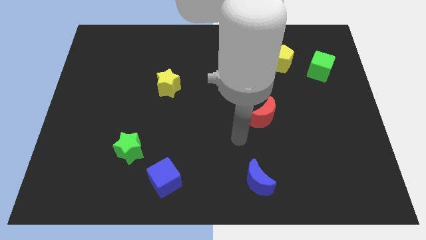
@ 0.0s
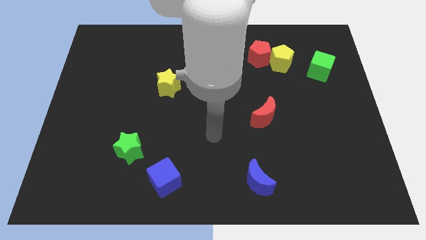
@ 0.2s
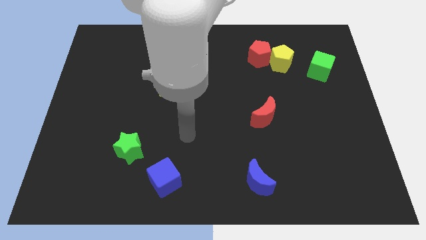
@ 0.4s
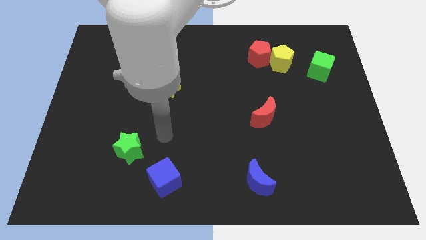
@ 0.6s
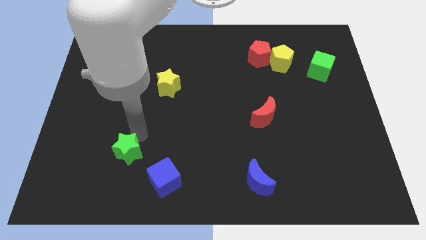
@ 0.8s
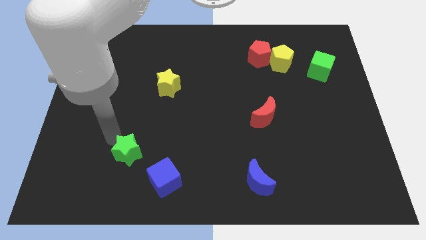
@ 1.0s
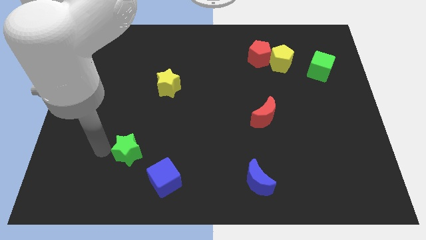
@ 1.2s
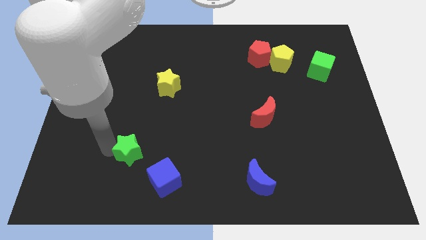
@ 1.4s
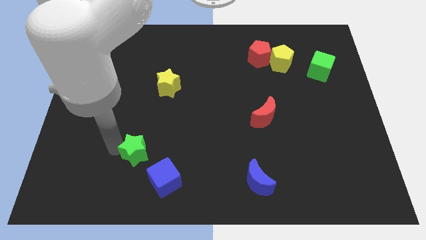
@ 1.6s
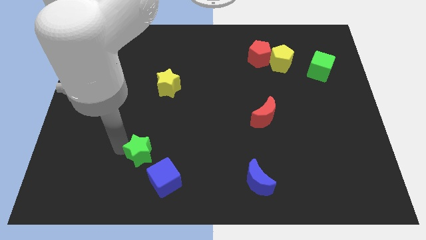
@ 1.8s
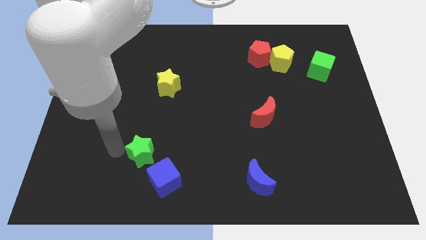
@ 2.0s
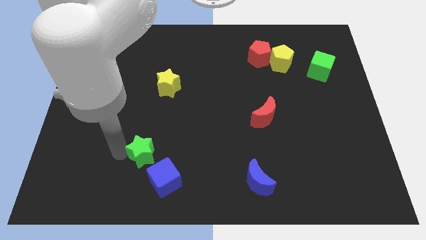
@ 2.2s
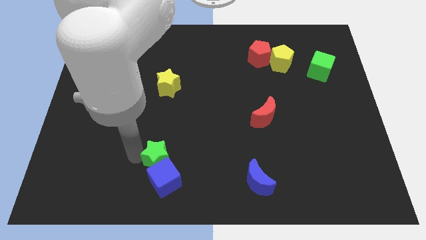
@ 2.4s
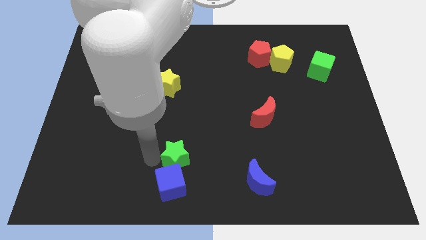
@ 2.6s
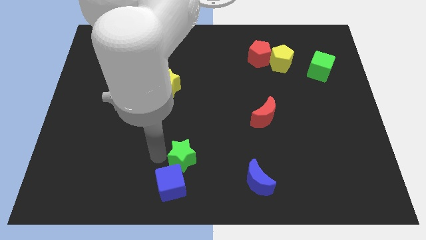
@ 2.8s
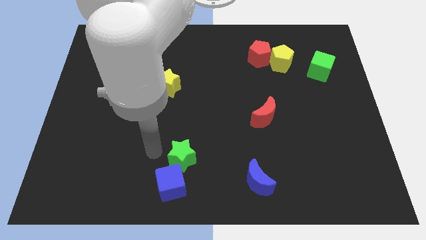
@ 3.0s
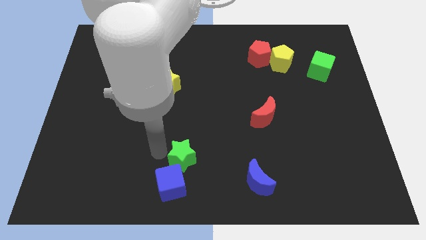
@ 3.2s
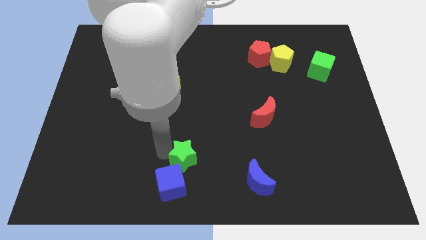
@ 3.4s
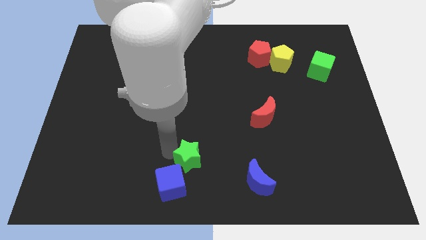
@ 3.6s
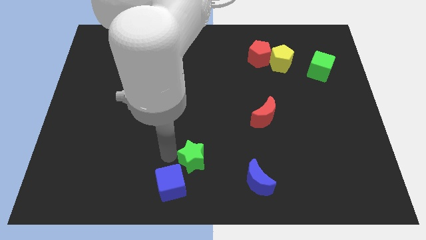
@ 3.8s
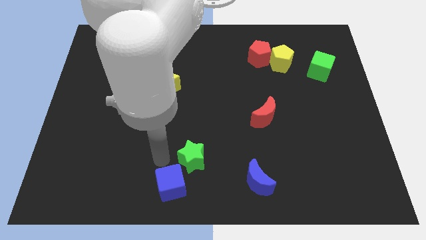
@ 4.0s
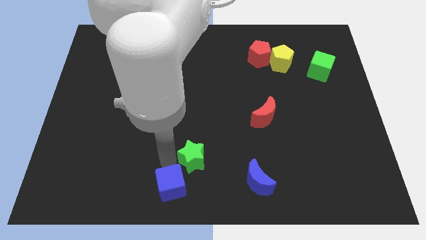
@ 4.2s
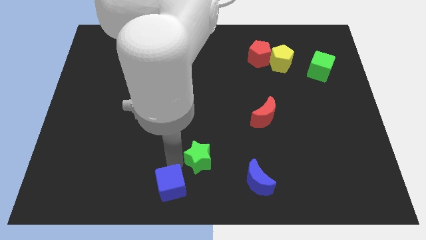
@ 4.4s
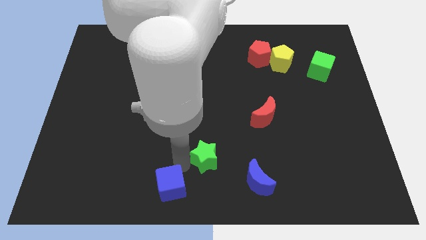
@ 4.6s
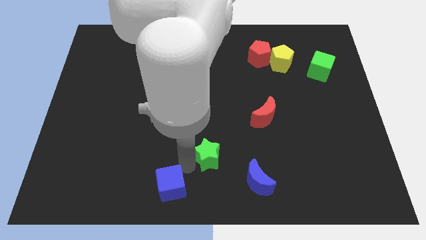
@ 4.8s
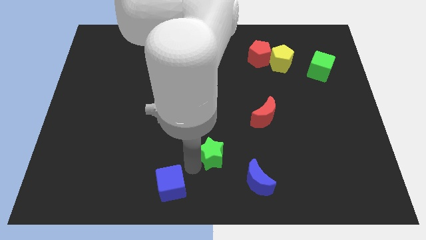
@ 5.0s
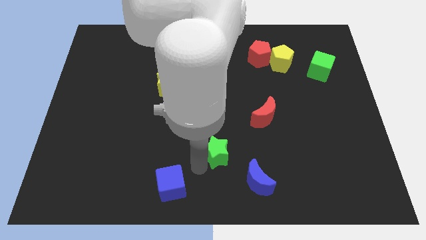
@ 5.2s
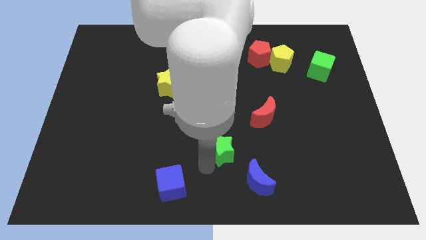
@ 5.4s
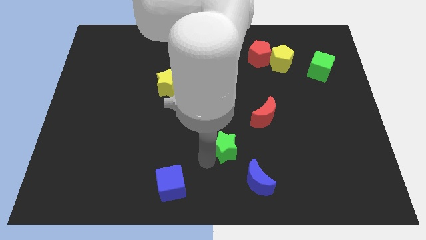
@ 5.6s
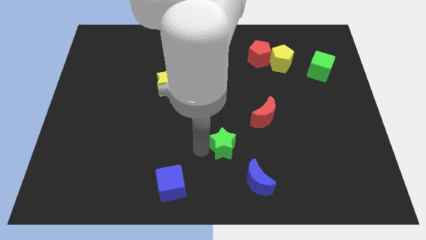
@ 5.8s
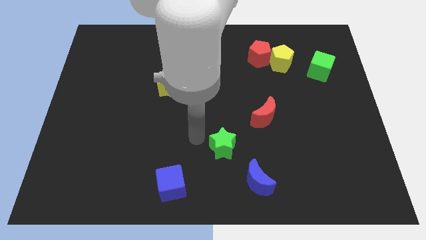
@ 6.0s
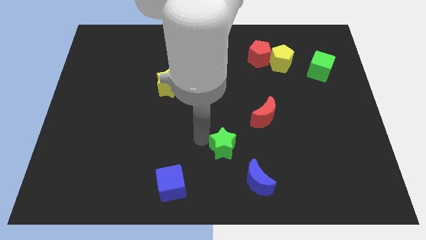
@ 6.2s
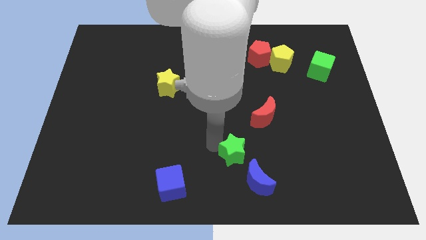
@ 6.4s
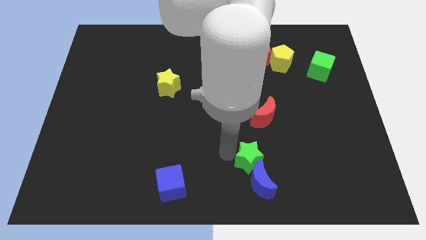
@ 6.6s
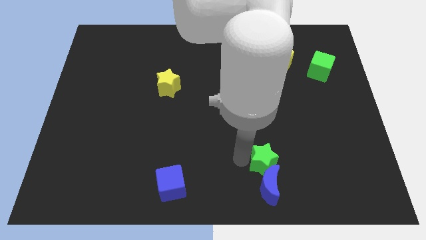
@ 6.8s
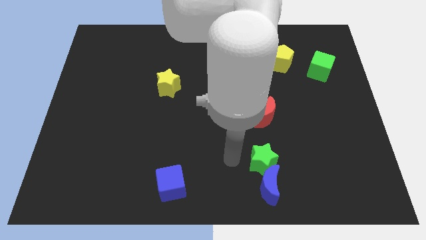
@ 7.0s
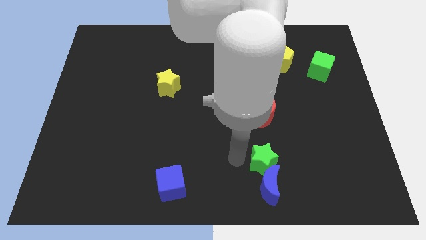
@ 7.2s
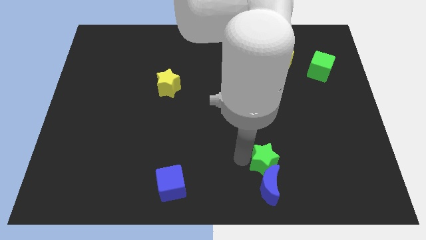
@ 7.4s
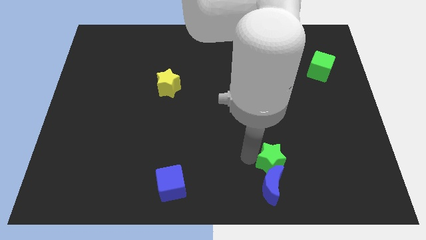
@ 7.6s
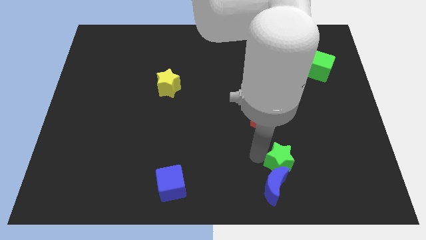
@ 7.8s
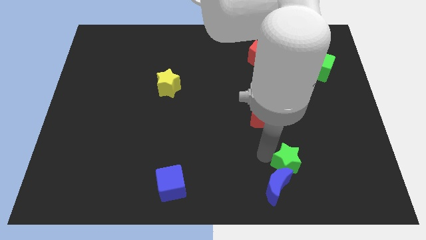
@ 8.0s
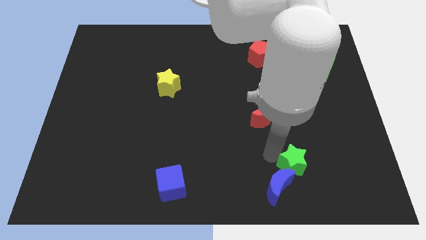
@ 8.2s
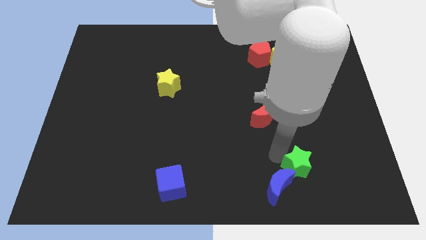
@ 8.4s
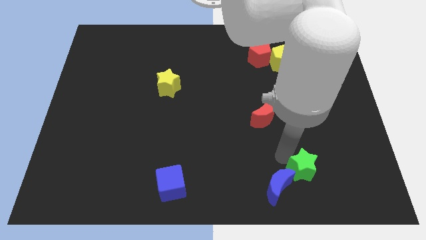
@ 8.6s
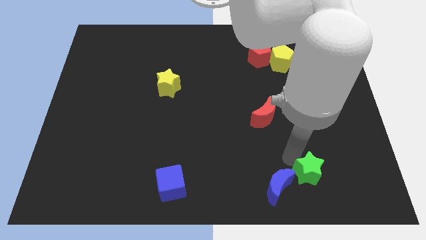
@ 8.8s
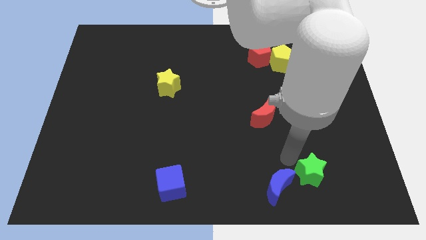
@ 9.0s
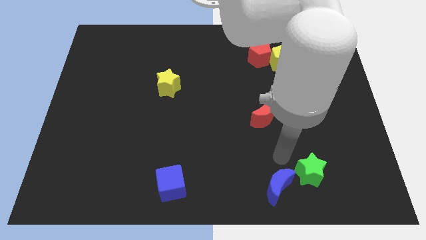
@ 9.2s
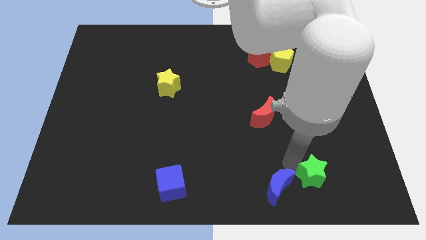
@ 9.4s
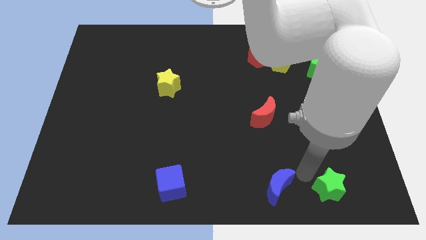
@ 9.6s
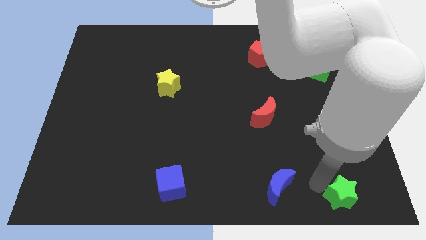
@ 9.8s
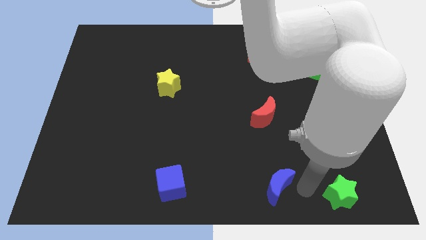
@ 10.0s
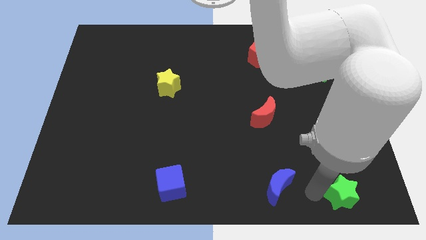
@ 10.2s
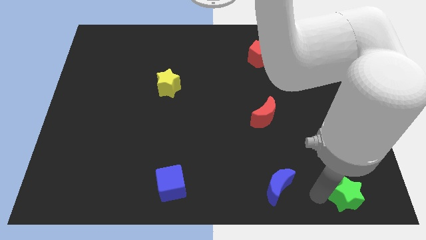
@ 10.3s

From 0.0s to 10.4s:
put the green star to the bottom right corner

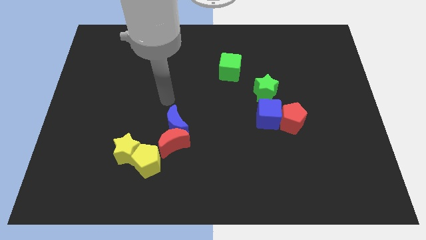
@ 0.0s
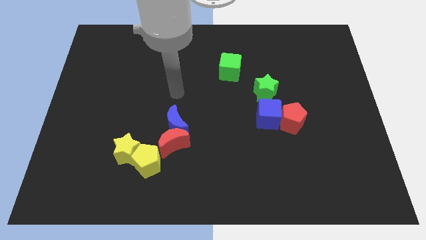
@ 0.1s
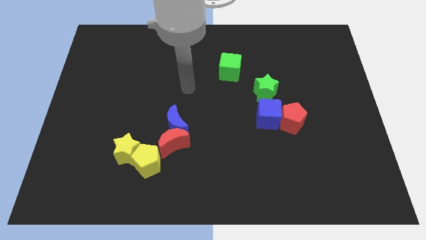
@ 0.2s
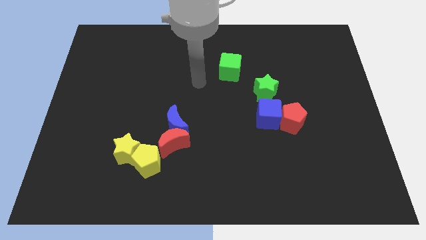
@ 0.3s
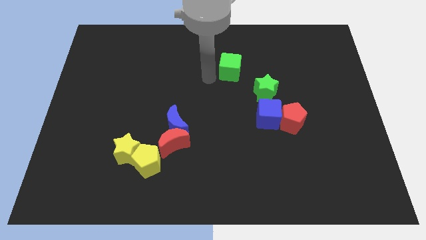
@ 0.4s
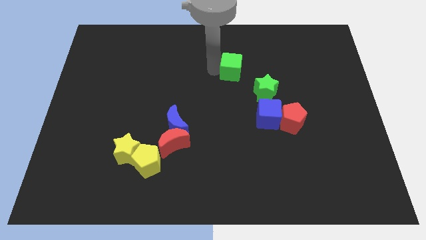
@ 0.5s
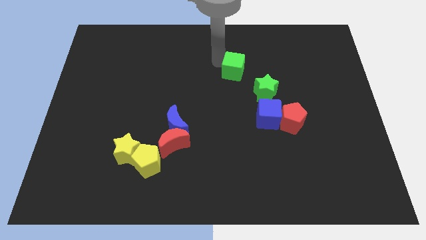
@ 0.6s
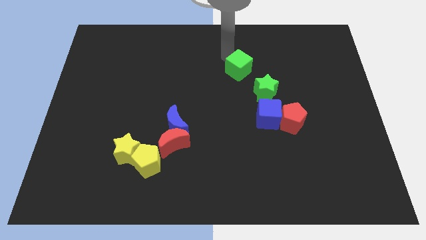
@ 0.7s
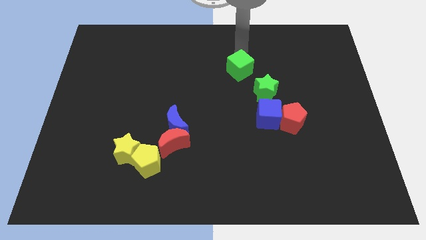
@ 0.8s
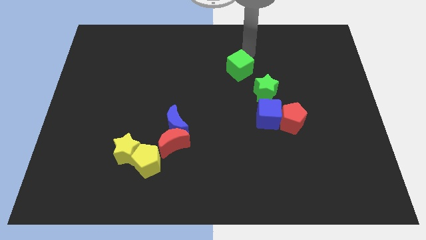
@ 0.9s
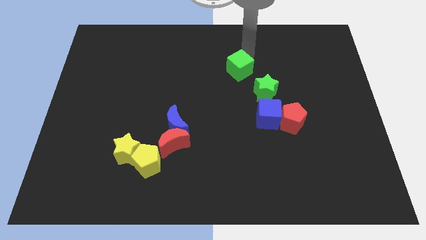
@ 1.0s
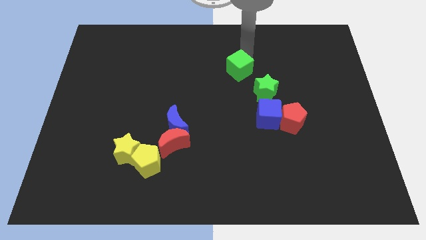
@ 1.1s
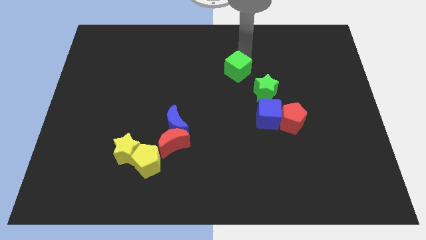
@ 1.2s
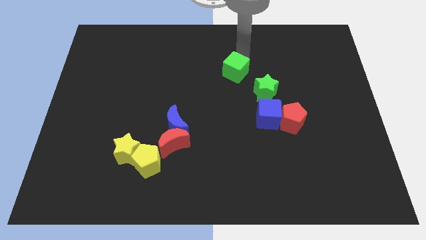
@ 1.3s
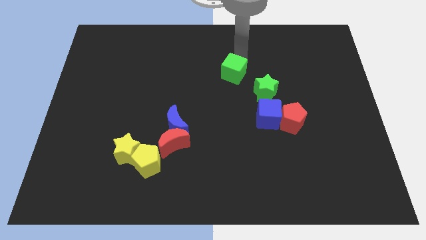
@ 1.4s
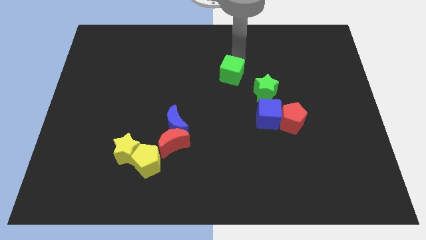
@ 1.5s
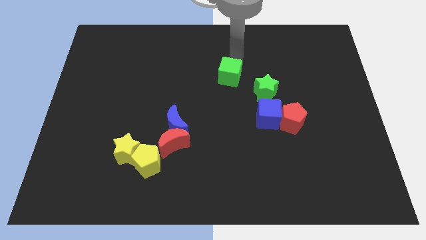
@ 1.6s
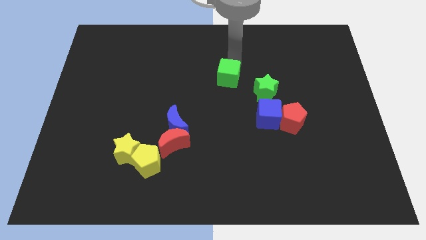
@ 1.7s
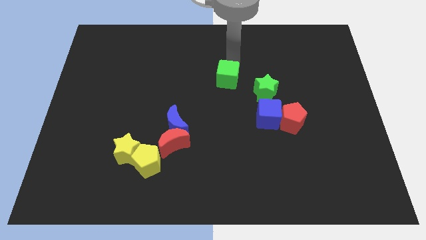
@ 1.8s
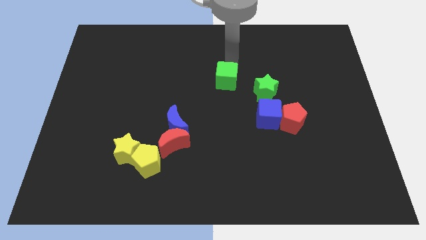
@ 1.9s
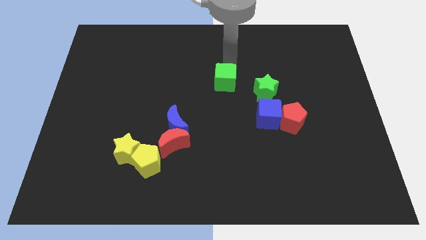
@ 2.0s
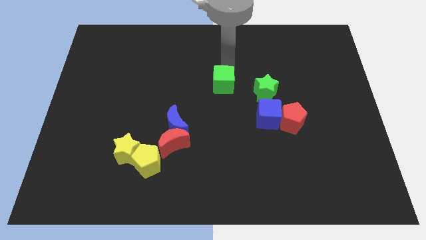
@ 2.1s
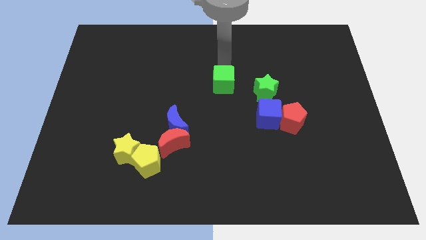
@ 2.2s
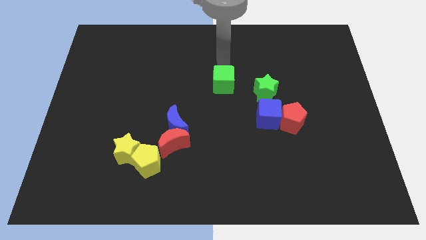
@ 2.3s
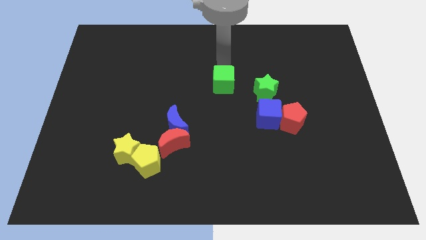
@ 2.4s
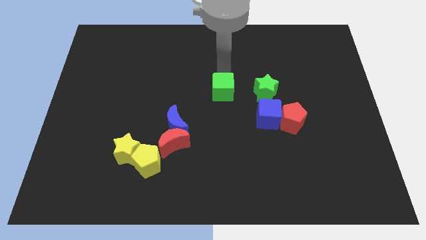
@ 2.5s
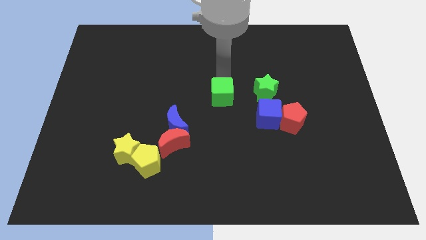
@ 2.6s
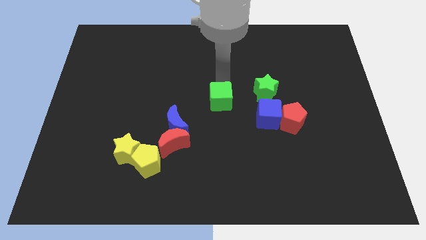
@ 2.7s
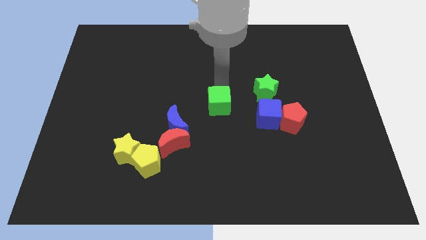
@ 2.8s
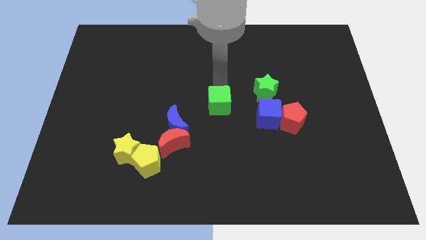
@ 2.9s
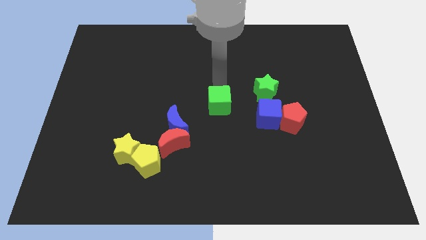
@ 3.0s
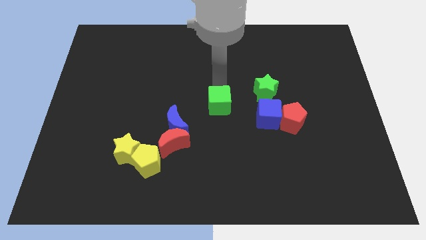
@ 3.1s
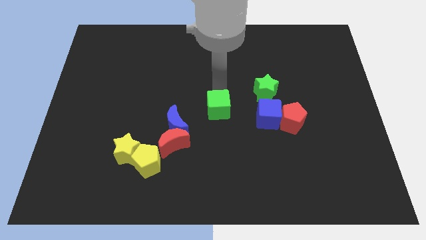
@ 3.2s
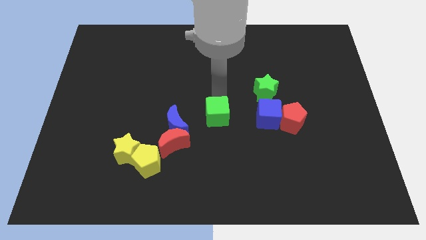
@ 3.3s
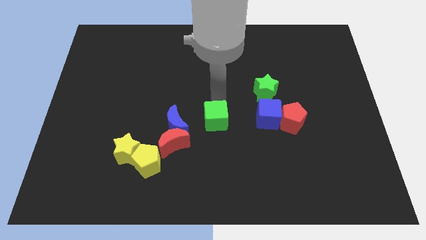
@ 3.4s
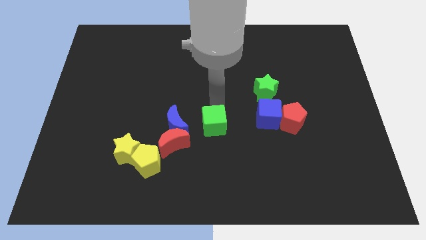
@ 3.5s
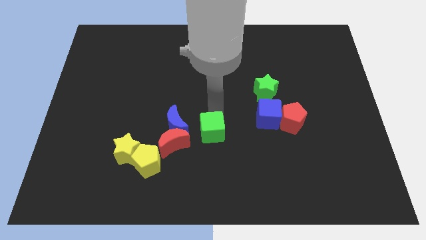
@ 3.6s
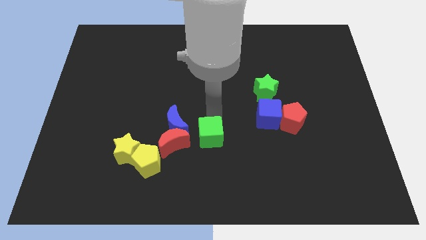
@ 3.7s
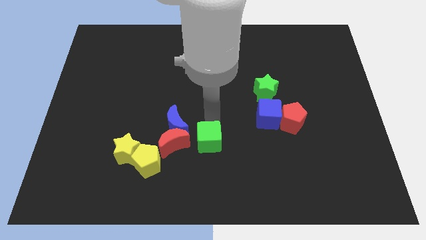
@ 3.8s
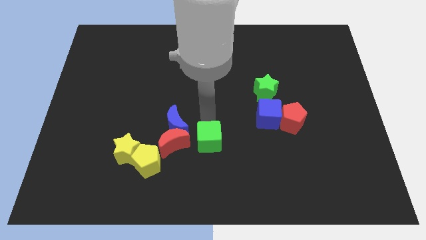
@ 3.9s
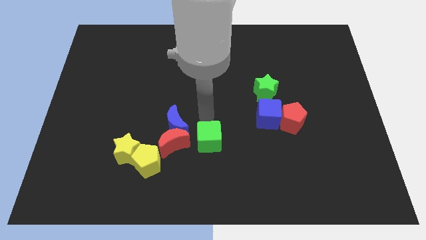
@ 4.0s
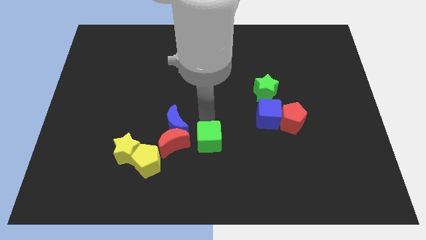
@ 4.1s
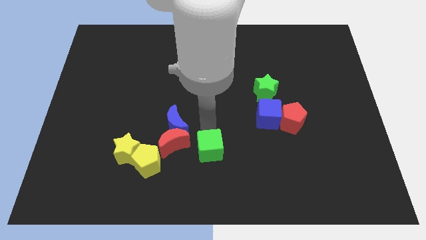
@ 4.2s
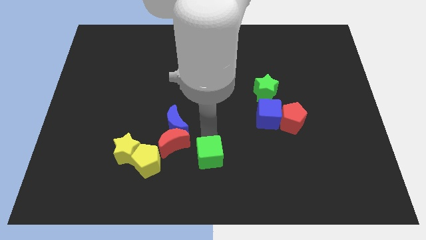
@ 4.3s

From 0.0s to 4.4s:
put the green cube to the bottom
